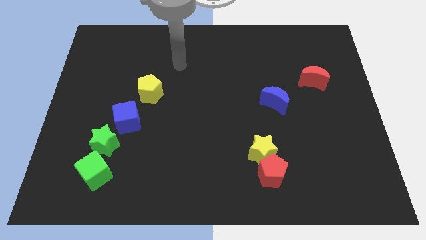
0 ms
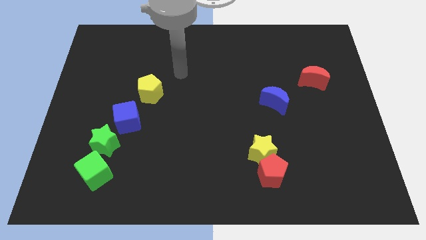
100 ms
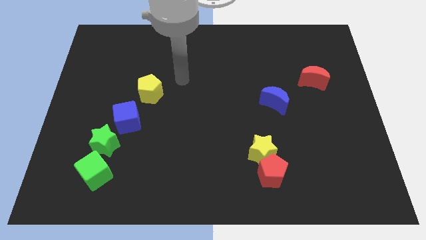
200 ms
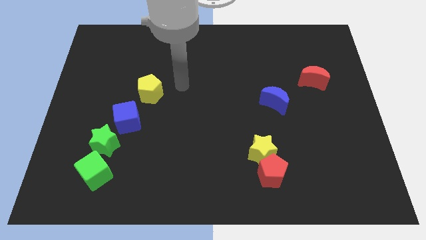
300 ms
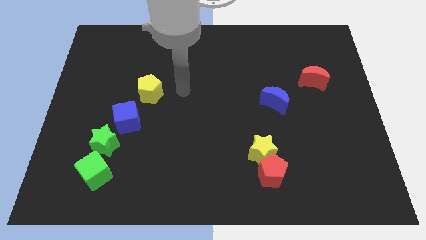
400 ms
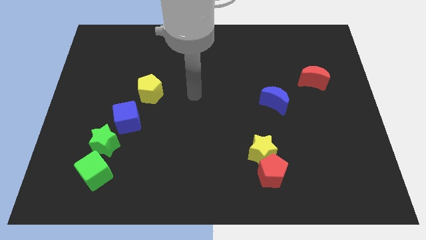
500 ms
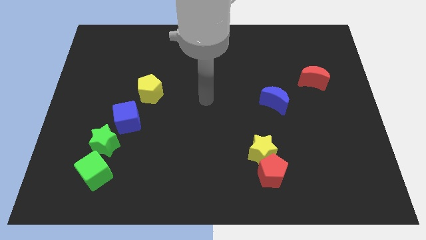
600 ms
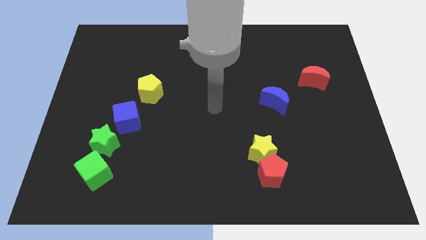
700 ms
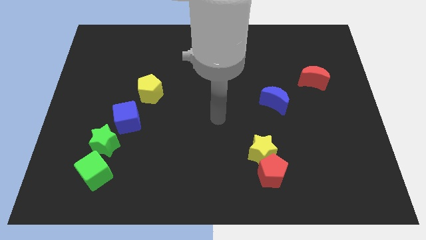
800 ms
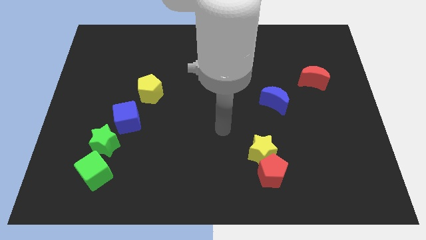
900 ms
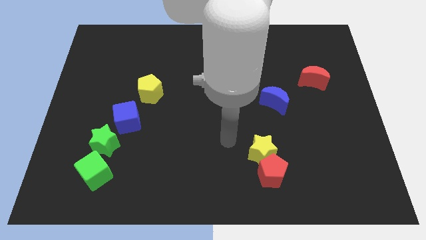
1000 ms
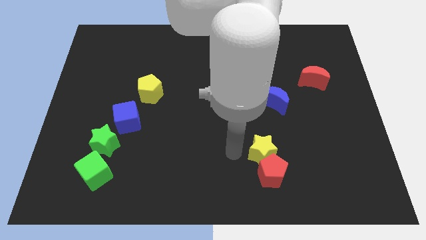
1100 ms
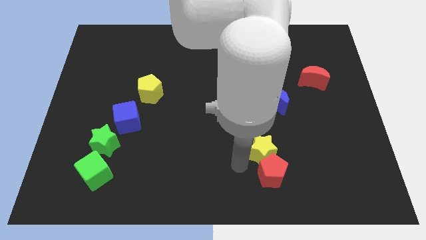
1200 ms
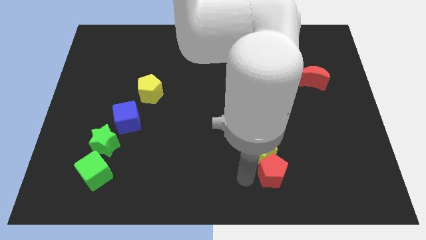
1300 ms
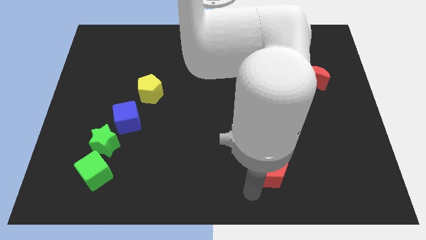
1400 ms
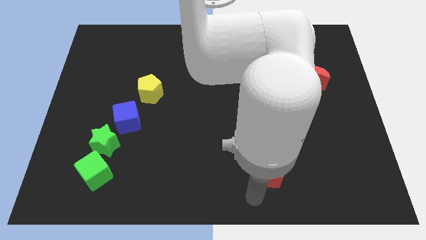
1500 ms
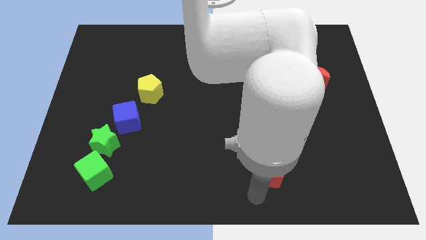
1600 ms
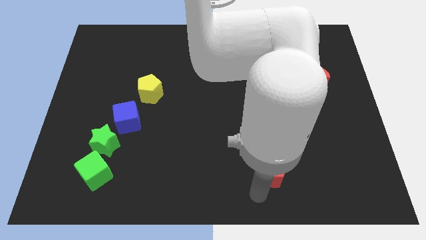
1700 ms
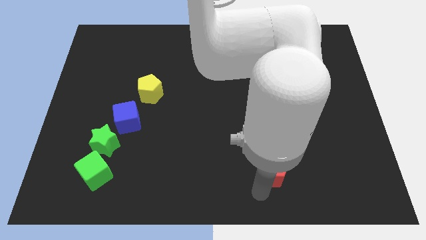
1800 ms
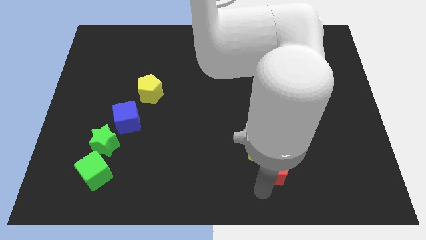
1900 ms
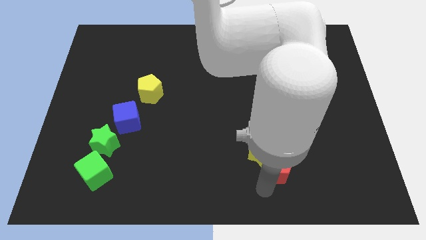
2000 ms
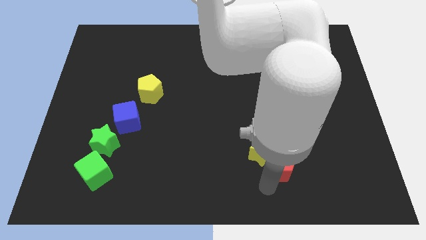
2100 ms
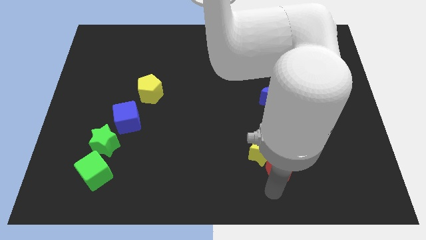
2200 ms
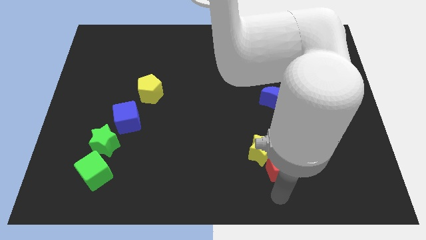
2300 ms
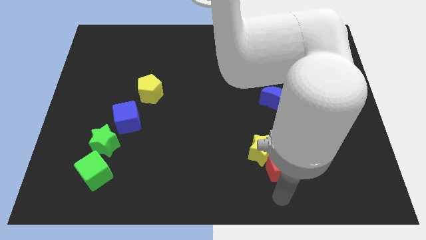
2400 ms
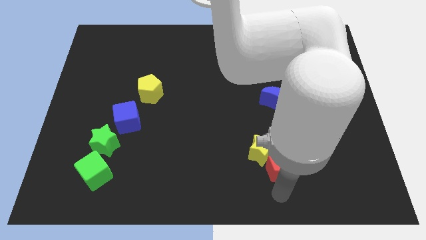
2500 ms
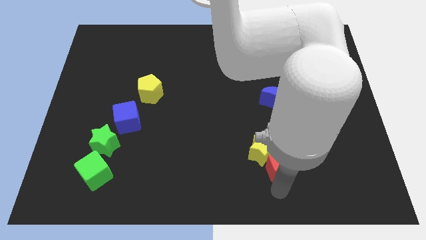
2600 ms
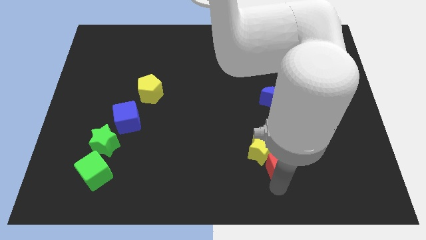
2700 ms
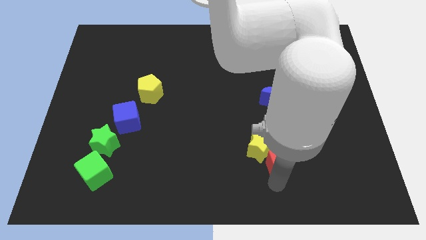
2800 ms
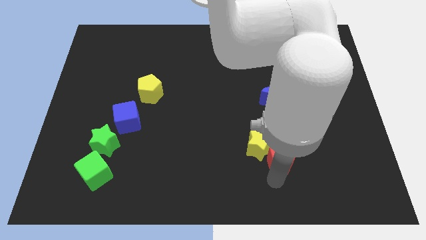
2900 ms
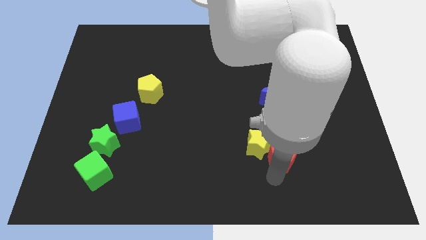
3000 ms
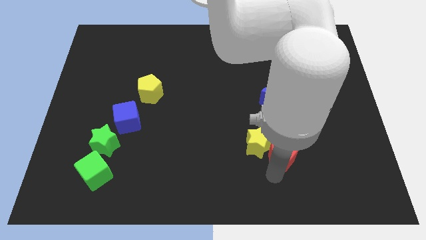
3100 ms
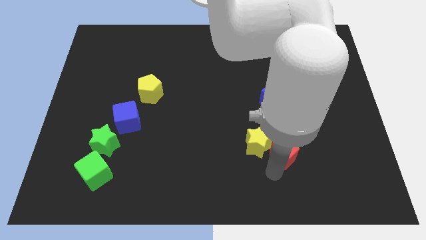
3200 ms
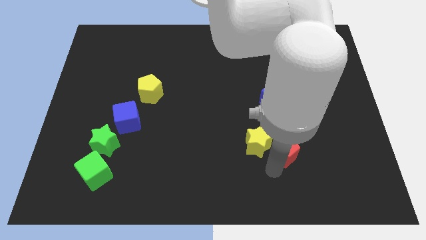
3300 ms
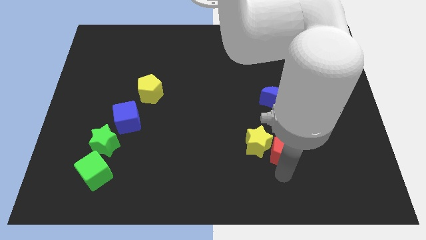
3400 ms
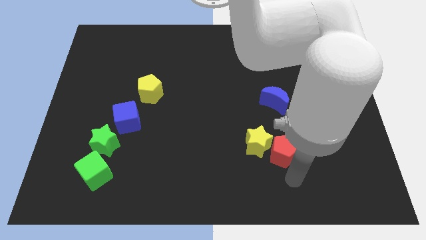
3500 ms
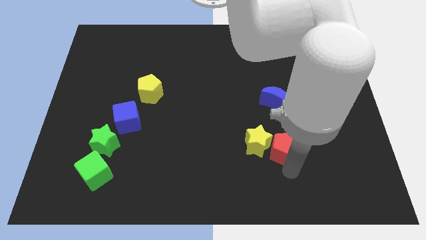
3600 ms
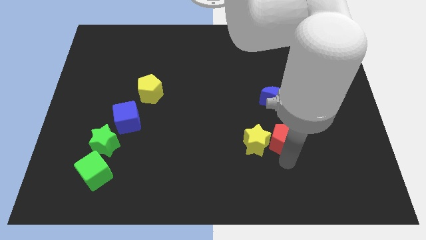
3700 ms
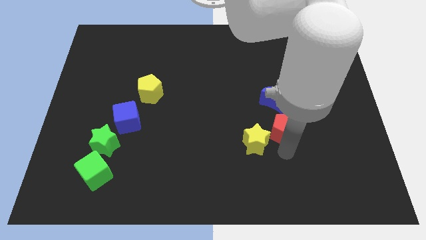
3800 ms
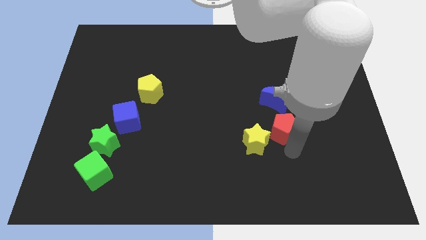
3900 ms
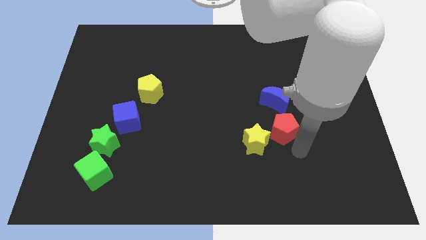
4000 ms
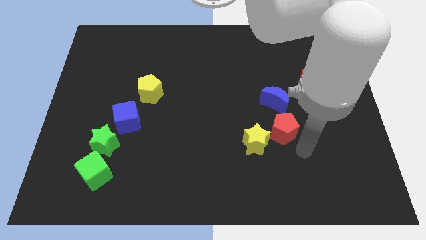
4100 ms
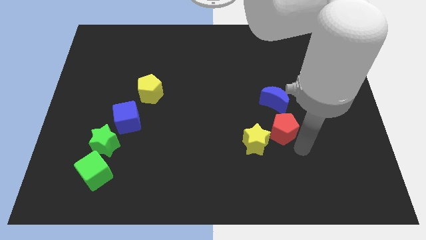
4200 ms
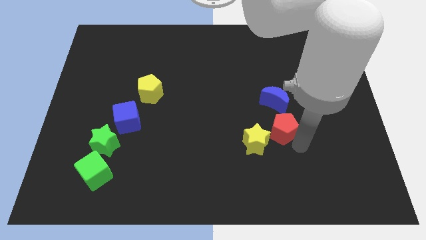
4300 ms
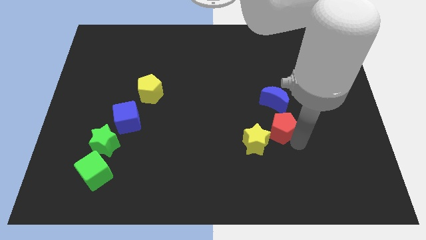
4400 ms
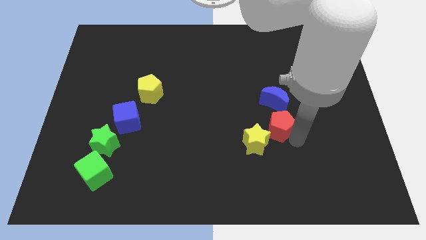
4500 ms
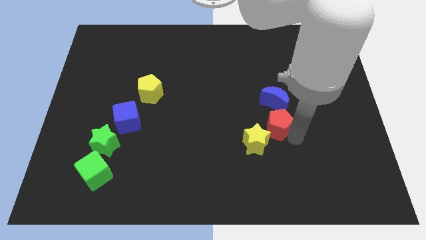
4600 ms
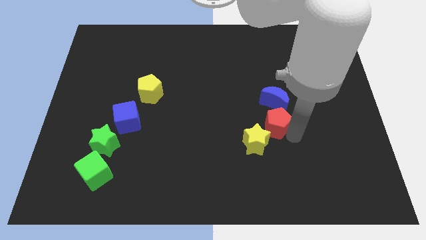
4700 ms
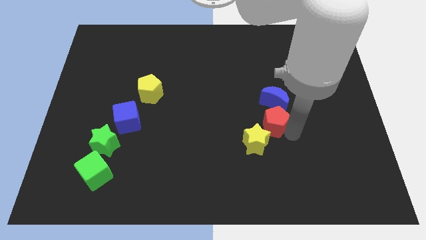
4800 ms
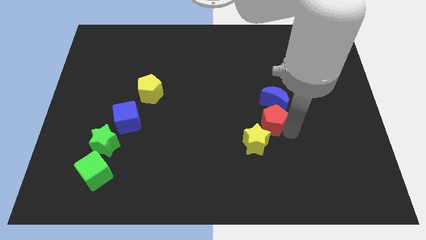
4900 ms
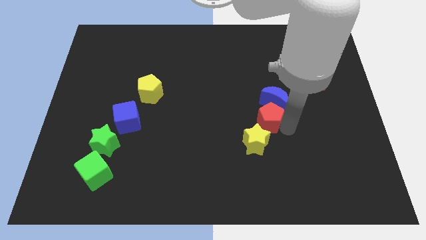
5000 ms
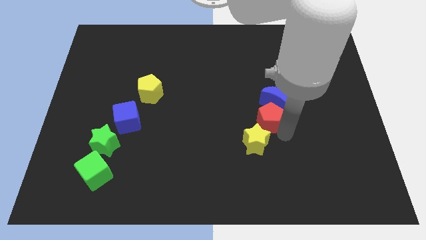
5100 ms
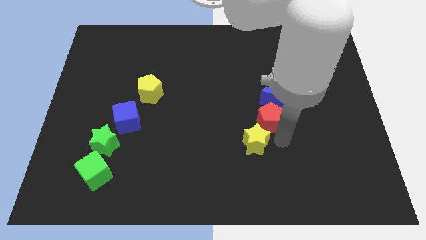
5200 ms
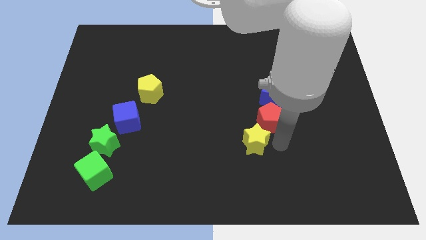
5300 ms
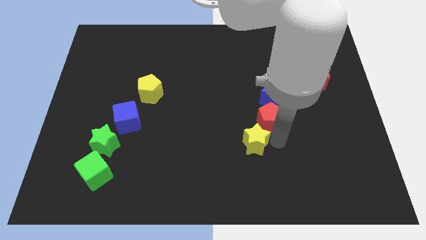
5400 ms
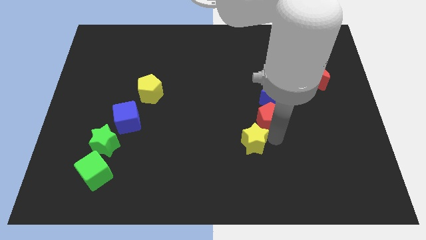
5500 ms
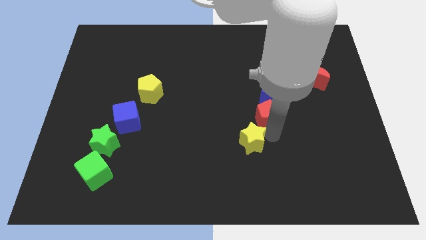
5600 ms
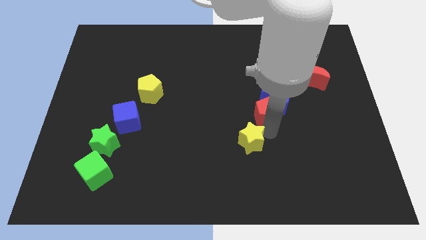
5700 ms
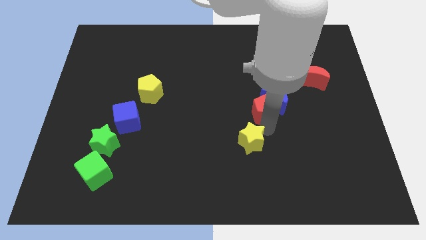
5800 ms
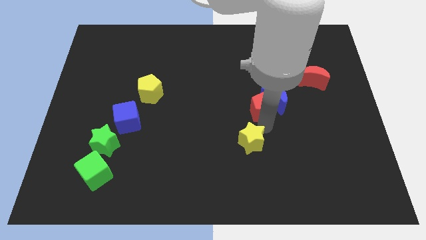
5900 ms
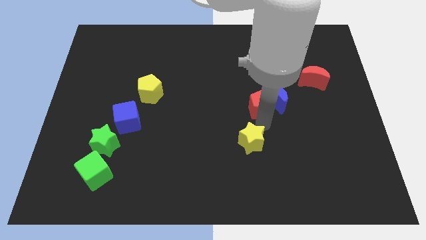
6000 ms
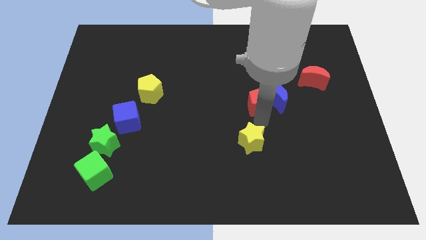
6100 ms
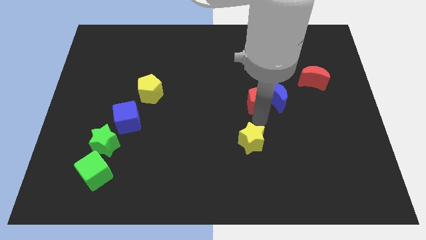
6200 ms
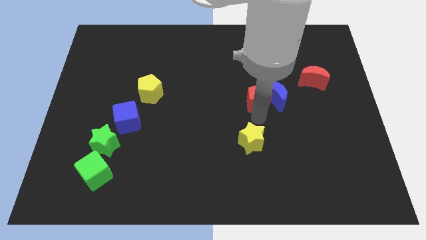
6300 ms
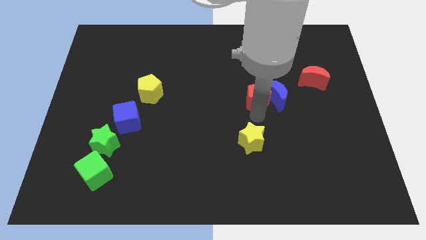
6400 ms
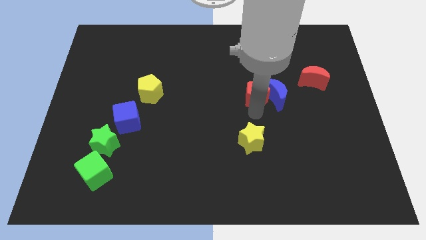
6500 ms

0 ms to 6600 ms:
push the red pentagon upwards

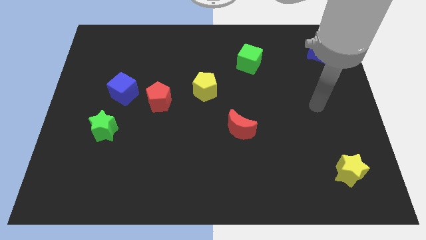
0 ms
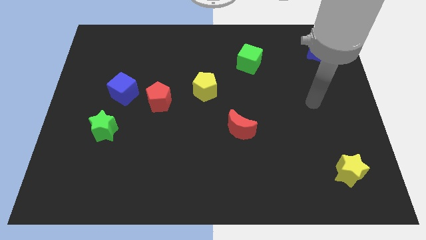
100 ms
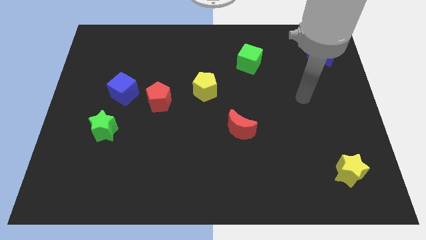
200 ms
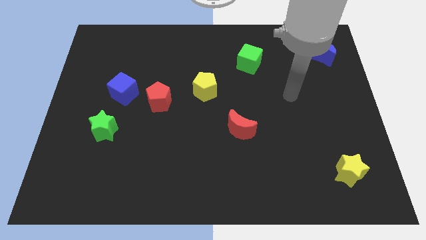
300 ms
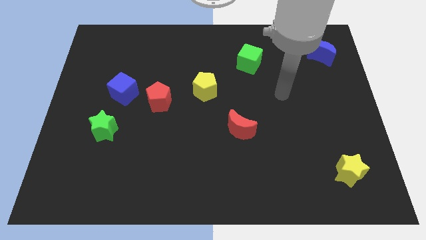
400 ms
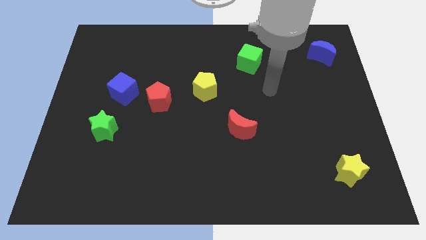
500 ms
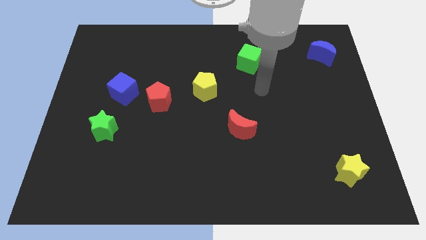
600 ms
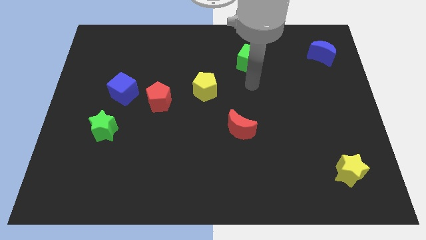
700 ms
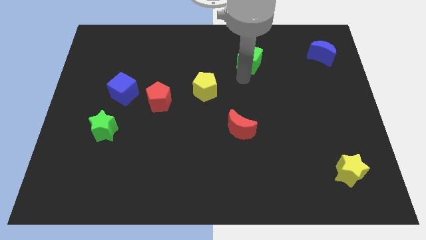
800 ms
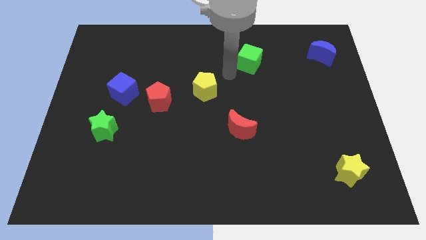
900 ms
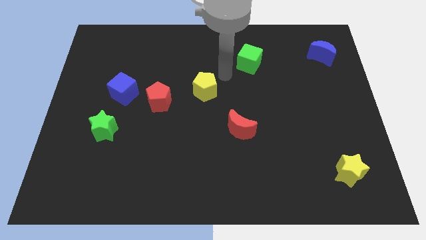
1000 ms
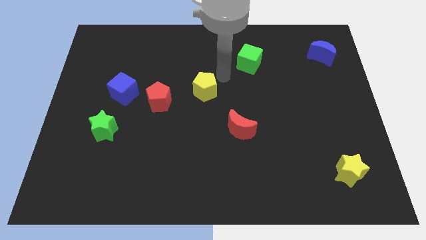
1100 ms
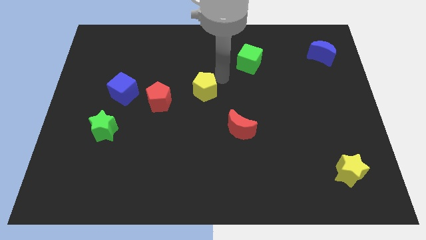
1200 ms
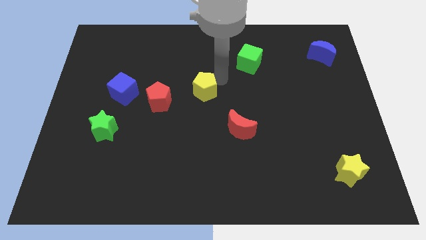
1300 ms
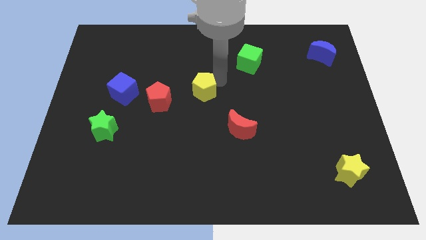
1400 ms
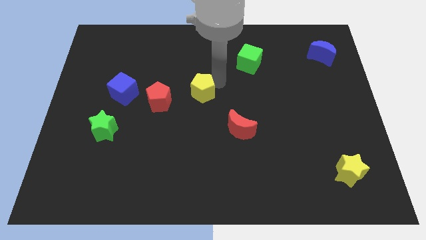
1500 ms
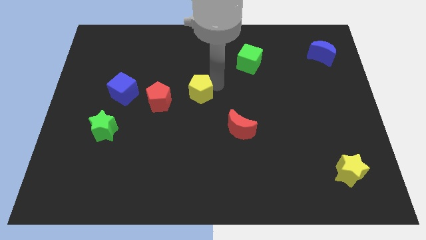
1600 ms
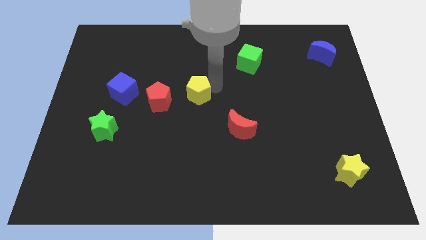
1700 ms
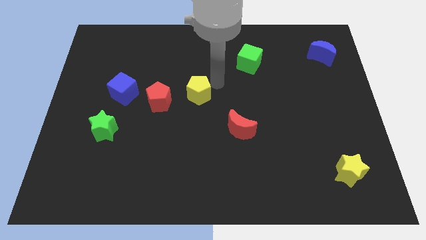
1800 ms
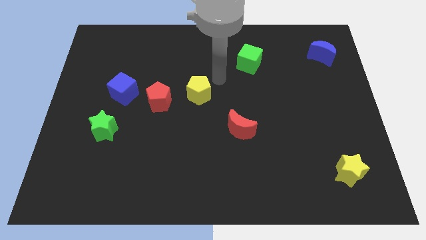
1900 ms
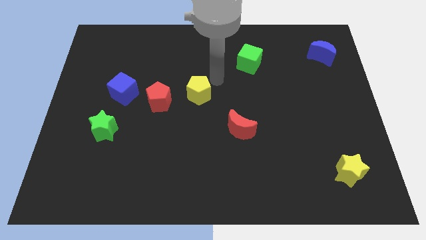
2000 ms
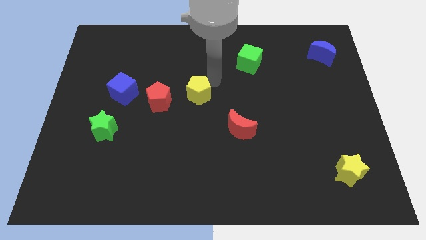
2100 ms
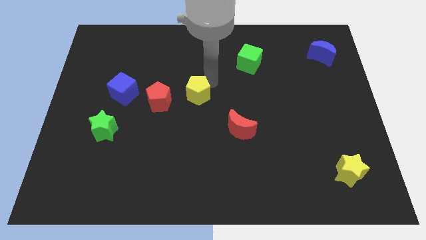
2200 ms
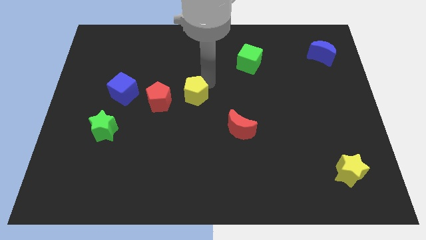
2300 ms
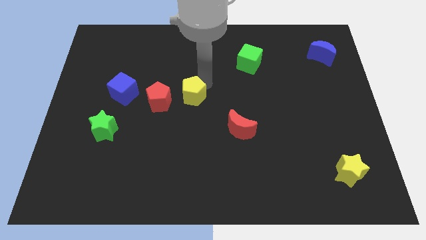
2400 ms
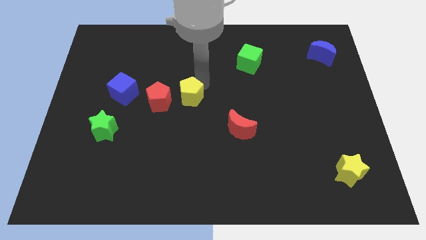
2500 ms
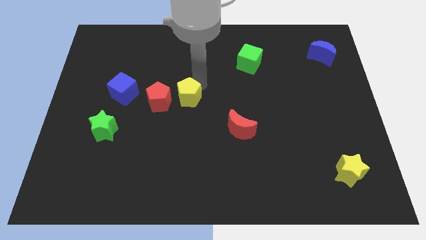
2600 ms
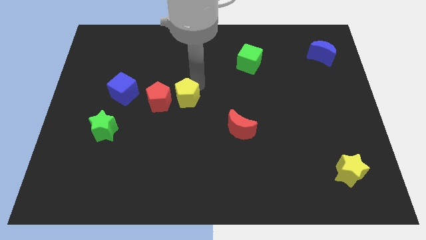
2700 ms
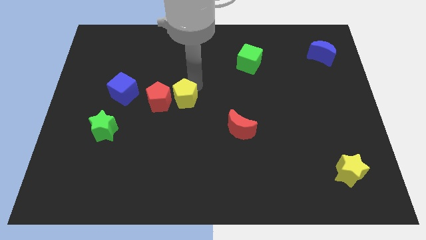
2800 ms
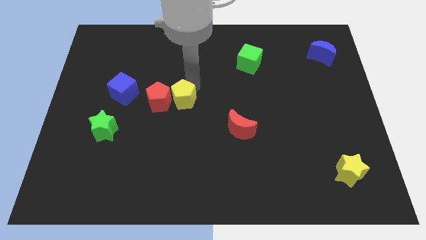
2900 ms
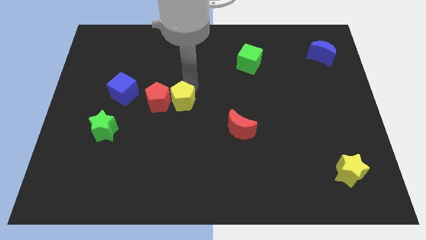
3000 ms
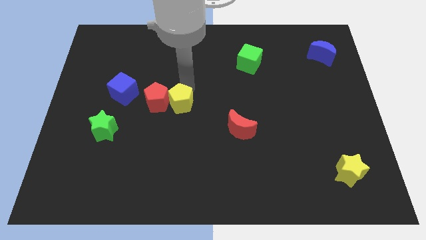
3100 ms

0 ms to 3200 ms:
slightly slide the yellow pentagon downwards and then to the left
